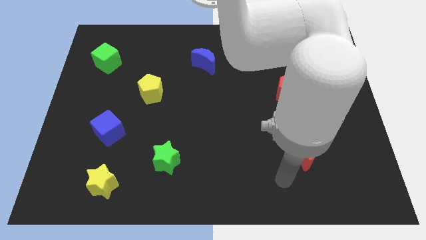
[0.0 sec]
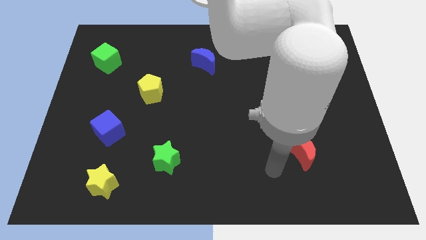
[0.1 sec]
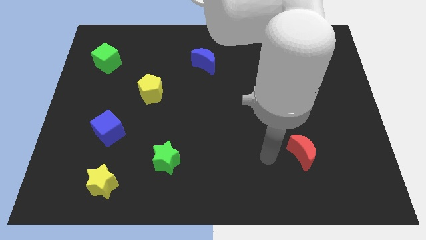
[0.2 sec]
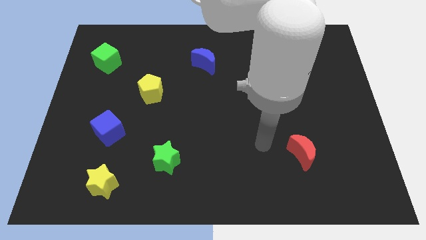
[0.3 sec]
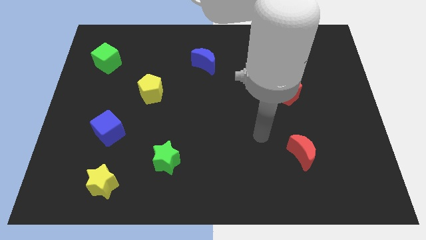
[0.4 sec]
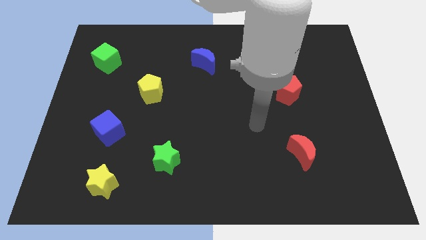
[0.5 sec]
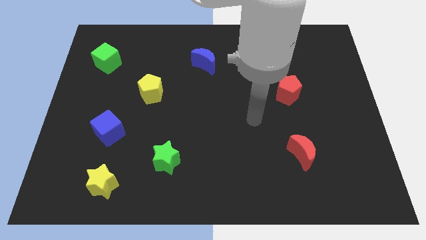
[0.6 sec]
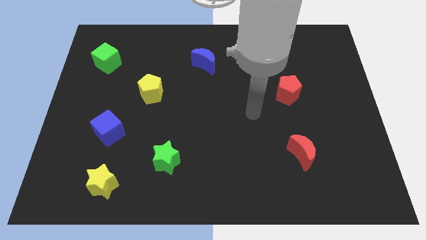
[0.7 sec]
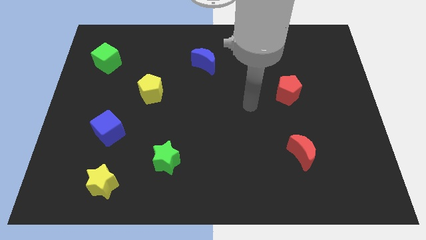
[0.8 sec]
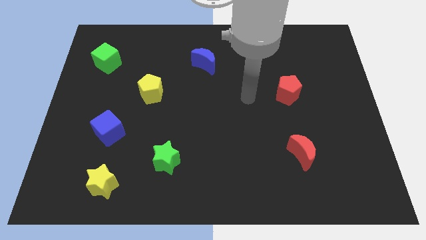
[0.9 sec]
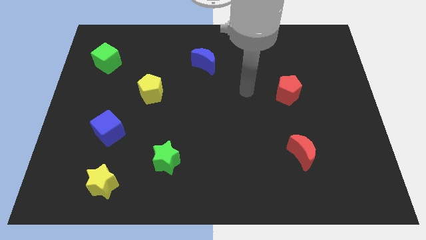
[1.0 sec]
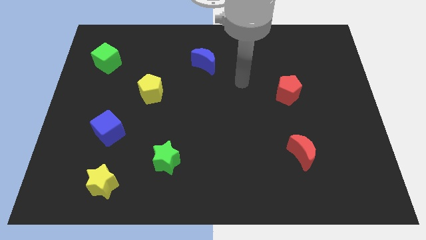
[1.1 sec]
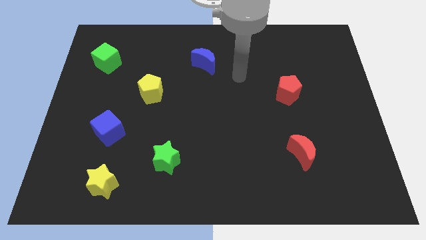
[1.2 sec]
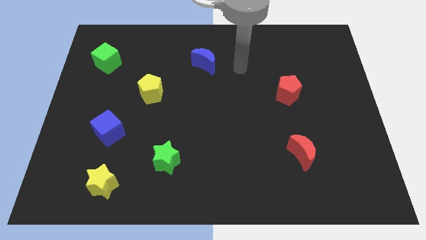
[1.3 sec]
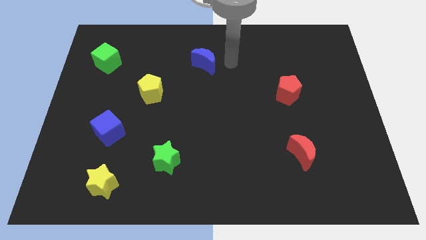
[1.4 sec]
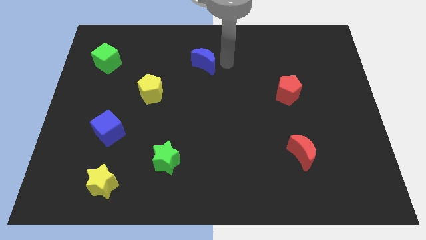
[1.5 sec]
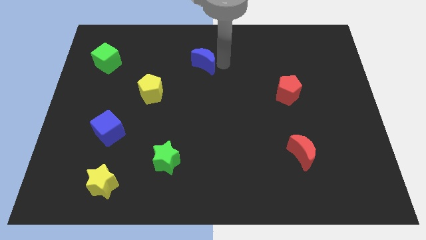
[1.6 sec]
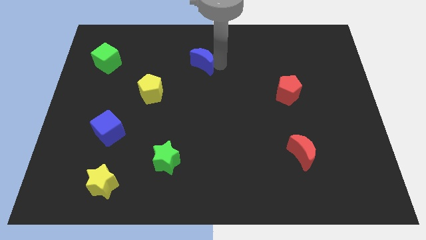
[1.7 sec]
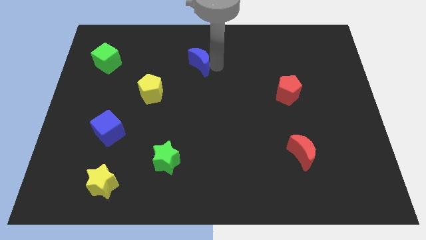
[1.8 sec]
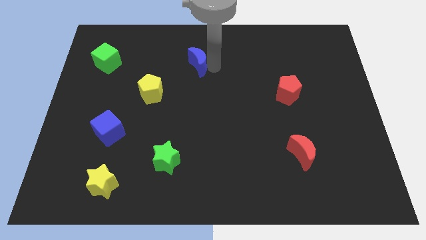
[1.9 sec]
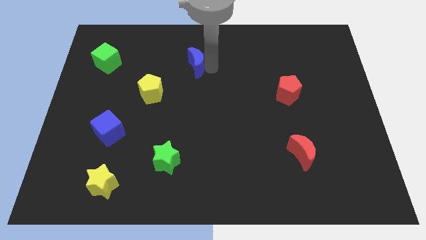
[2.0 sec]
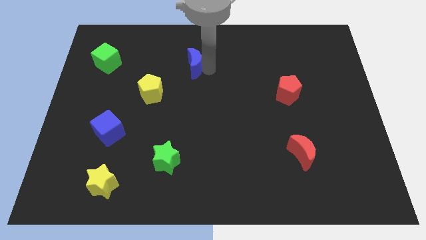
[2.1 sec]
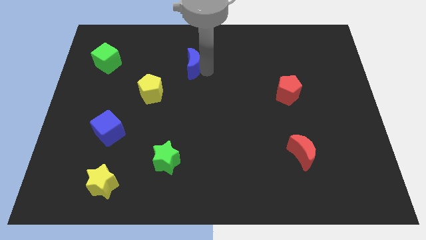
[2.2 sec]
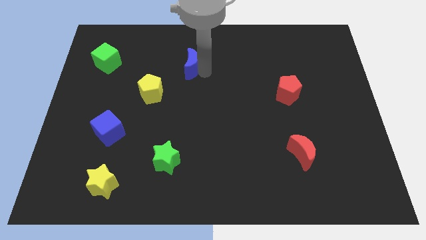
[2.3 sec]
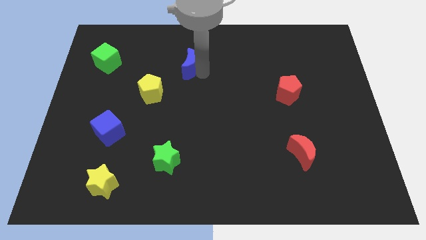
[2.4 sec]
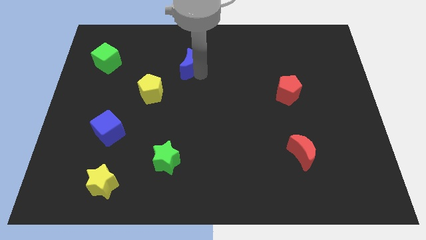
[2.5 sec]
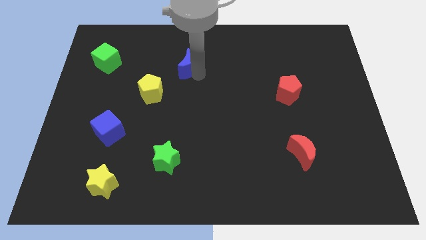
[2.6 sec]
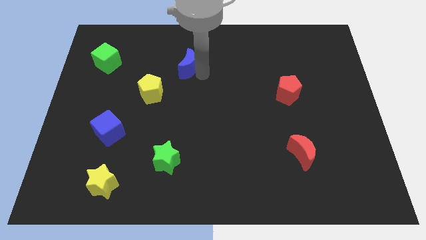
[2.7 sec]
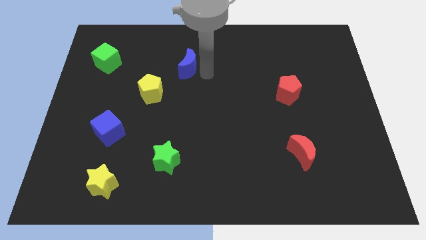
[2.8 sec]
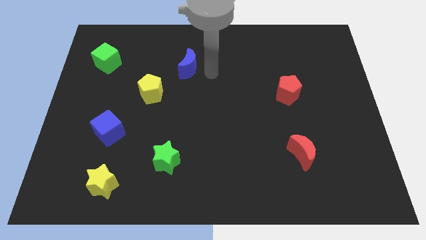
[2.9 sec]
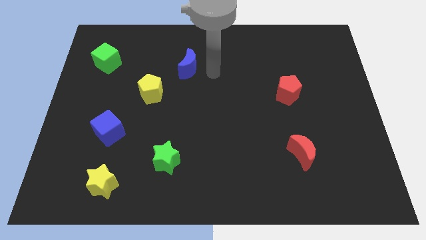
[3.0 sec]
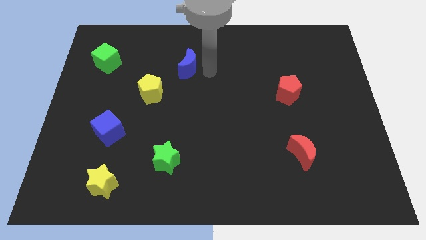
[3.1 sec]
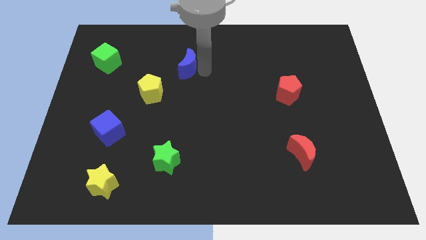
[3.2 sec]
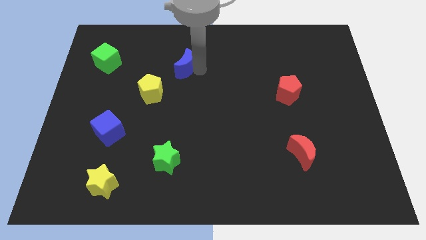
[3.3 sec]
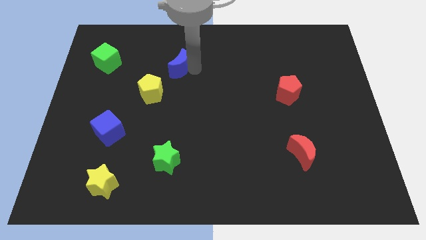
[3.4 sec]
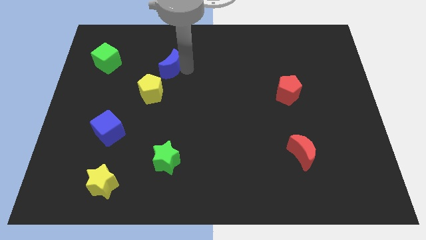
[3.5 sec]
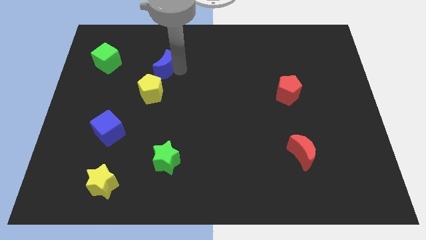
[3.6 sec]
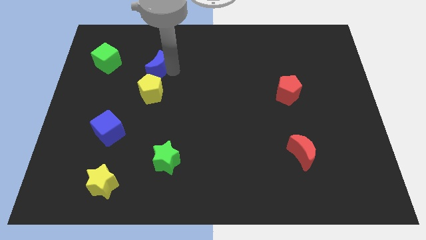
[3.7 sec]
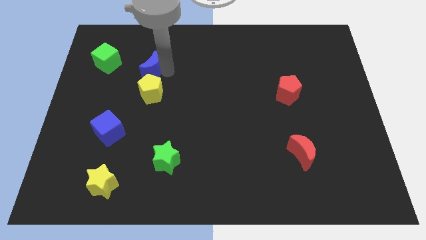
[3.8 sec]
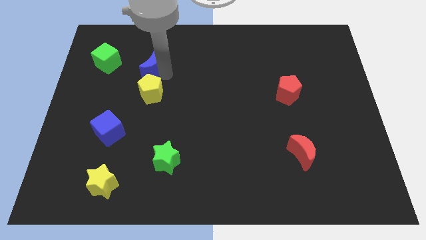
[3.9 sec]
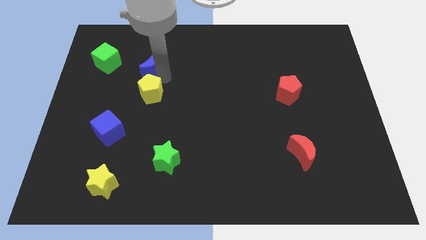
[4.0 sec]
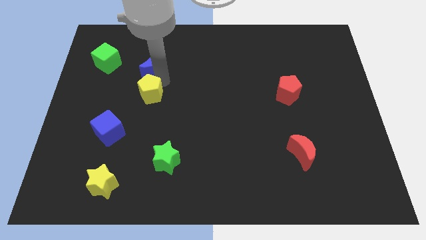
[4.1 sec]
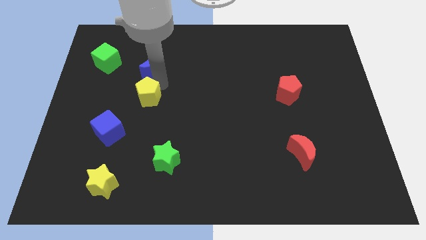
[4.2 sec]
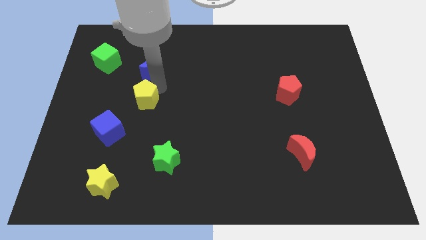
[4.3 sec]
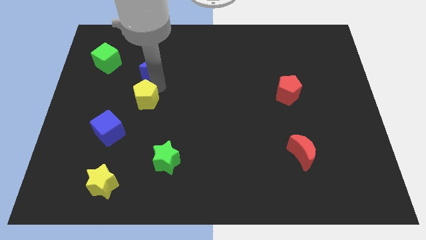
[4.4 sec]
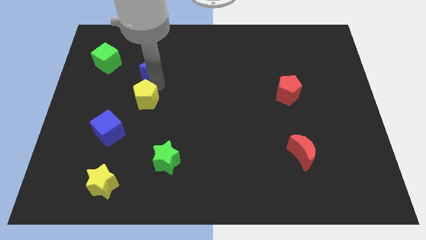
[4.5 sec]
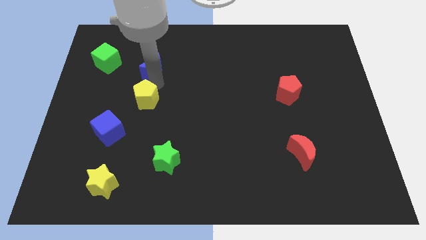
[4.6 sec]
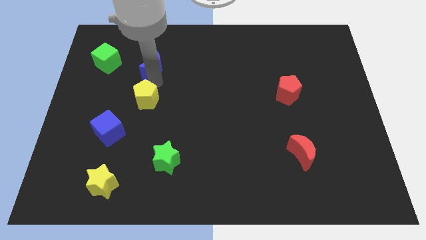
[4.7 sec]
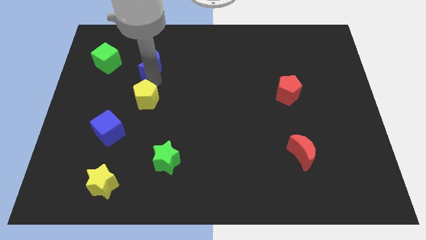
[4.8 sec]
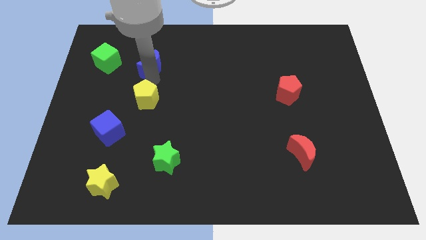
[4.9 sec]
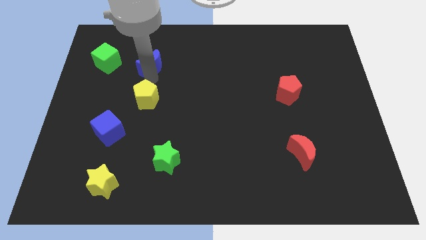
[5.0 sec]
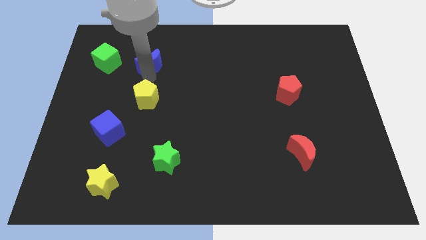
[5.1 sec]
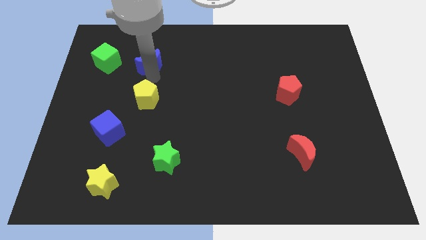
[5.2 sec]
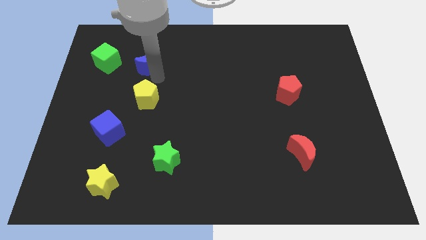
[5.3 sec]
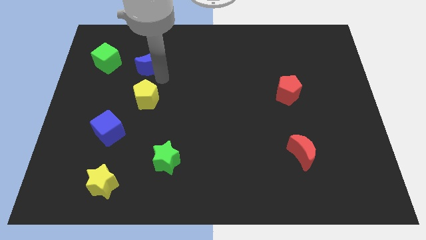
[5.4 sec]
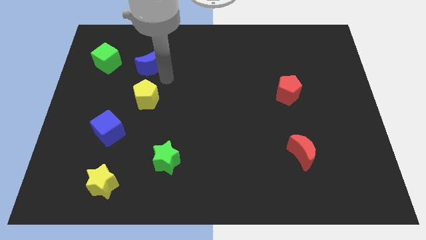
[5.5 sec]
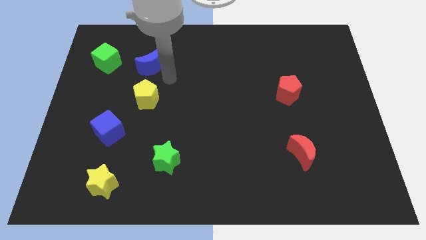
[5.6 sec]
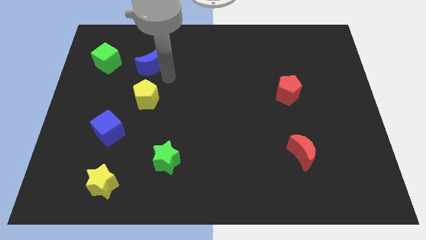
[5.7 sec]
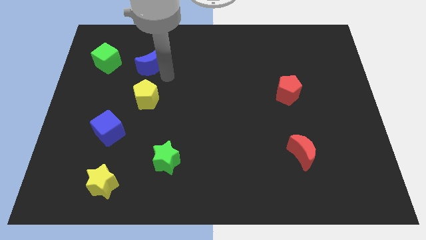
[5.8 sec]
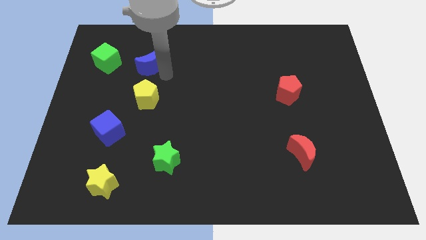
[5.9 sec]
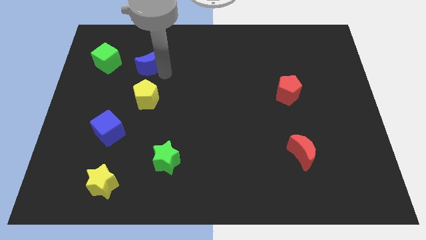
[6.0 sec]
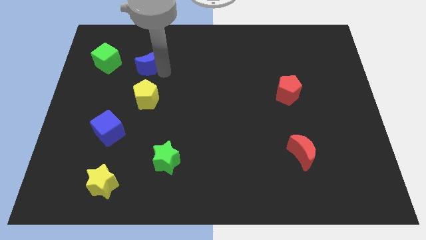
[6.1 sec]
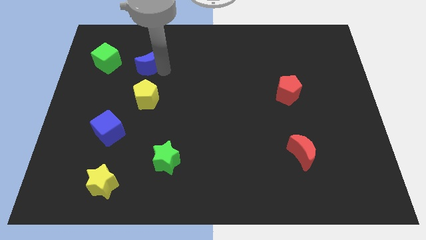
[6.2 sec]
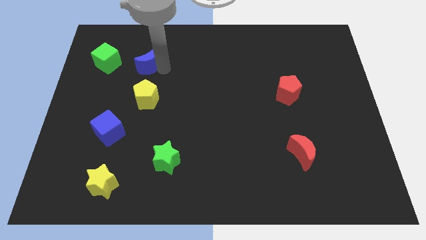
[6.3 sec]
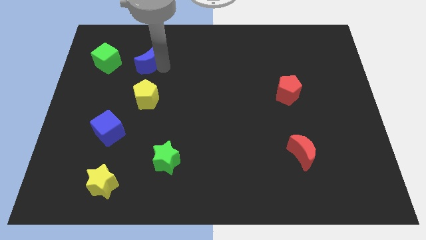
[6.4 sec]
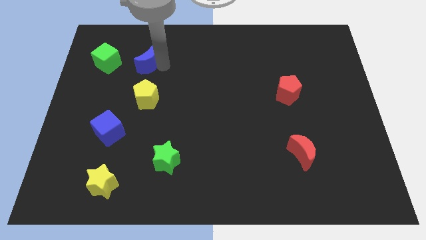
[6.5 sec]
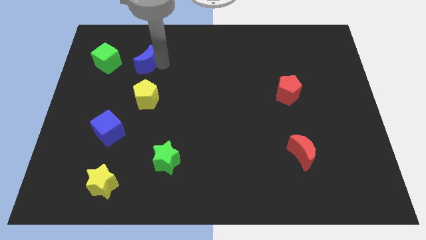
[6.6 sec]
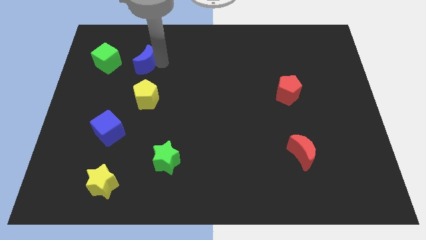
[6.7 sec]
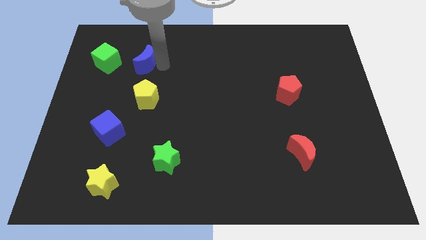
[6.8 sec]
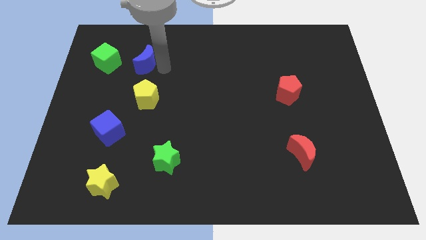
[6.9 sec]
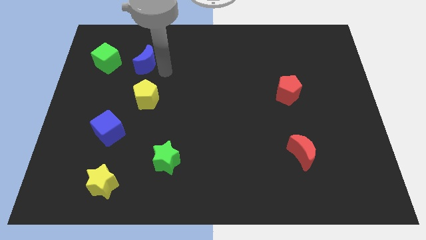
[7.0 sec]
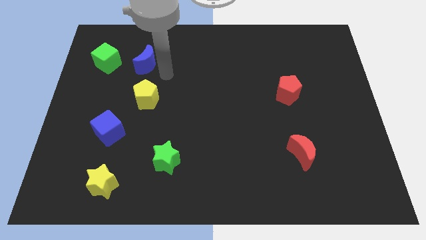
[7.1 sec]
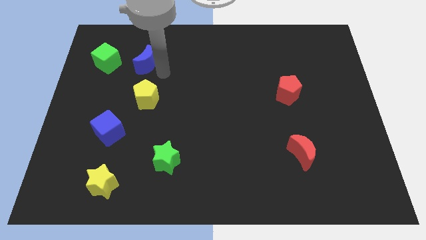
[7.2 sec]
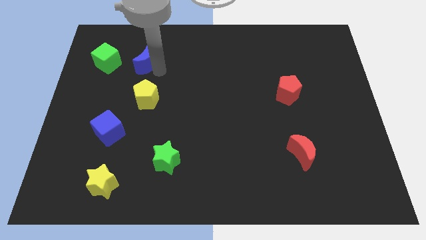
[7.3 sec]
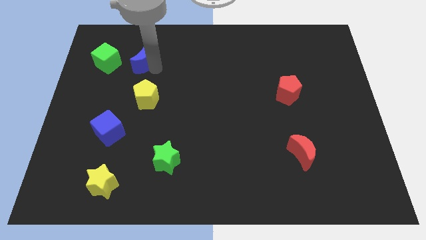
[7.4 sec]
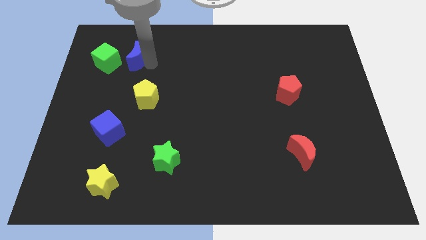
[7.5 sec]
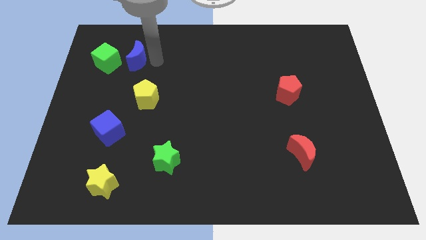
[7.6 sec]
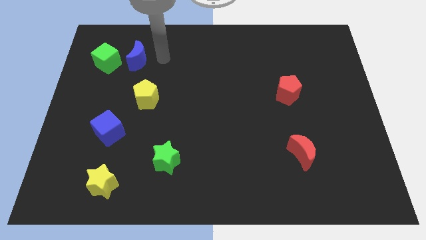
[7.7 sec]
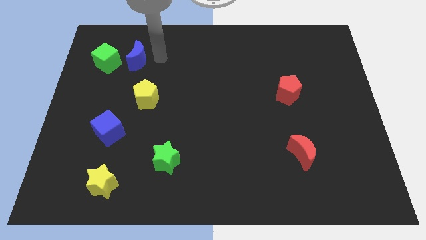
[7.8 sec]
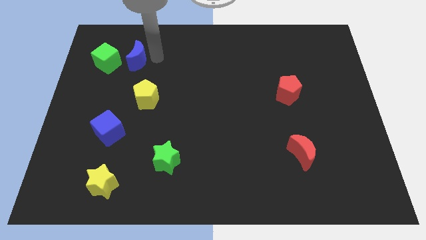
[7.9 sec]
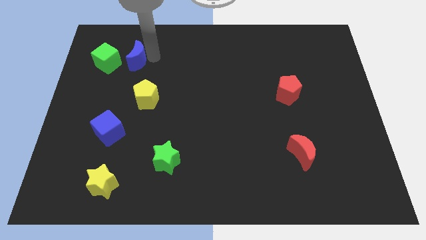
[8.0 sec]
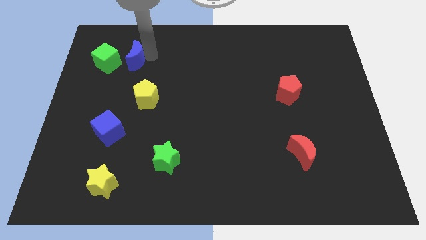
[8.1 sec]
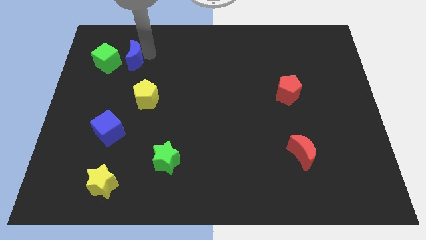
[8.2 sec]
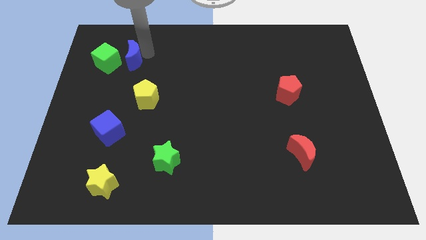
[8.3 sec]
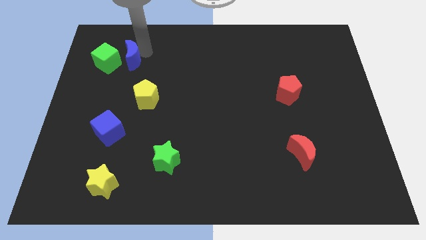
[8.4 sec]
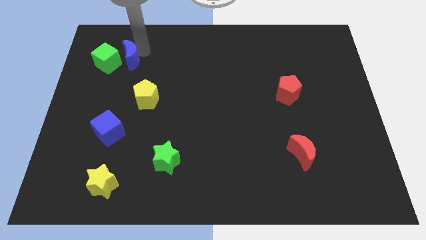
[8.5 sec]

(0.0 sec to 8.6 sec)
put the blue moon next to the green cube
